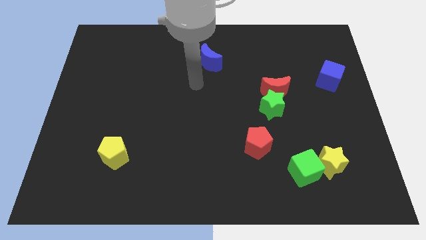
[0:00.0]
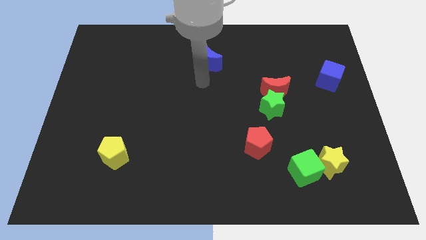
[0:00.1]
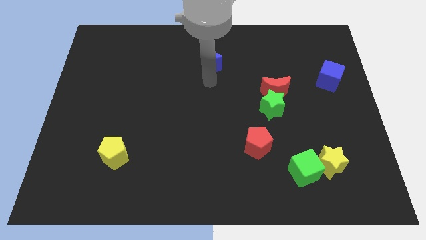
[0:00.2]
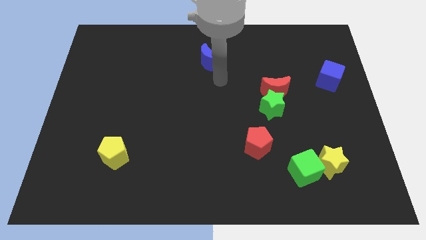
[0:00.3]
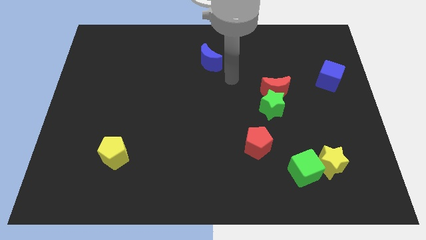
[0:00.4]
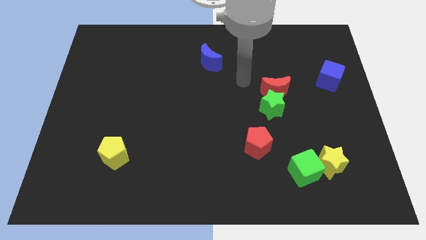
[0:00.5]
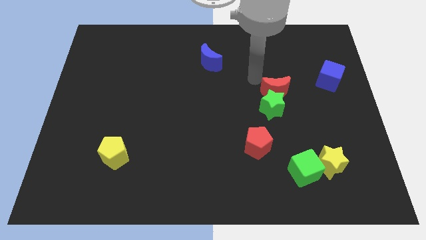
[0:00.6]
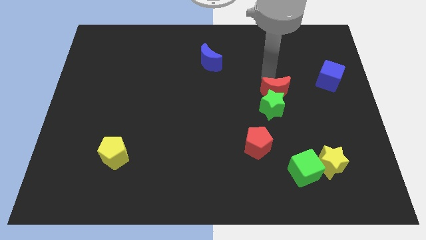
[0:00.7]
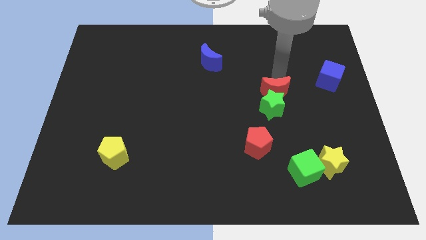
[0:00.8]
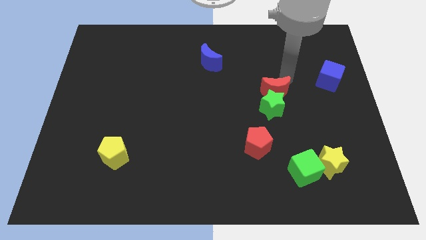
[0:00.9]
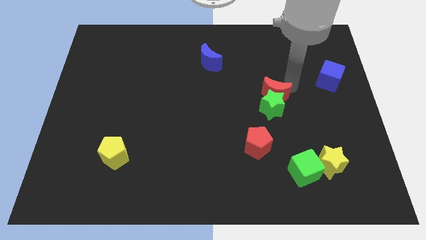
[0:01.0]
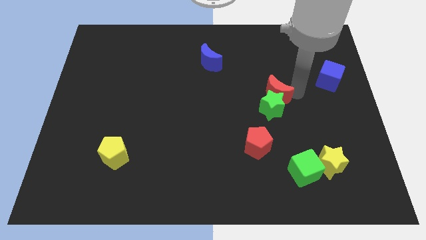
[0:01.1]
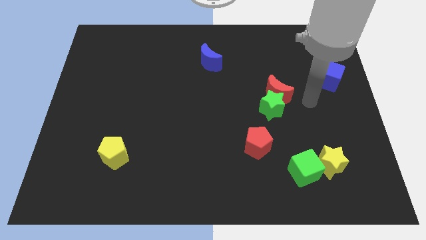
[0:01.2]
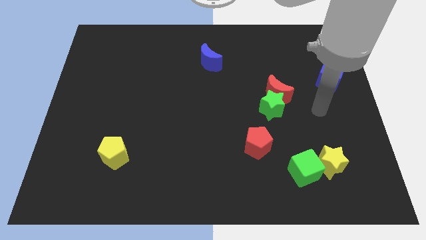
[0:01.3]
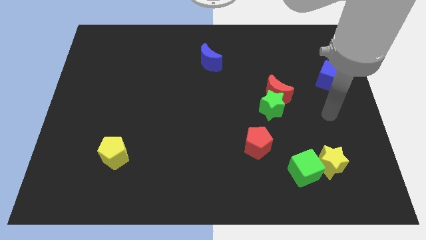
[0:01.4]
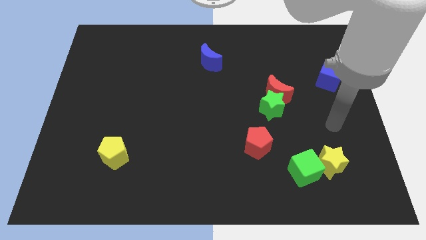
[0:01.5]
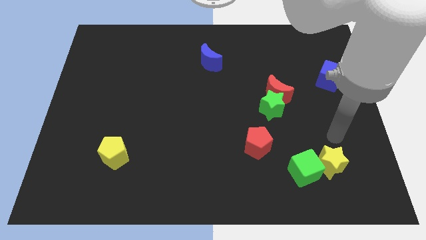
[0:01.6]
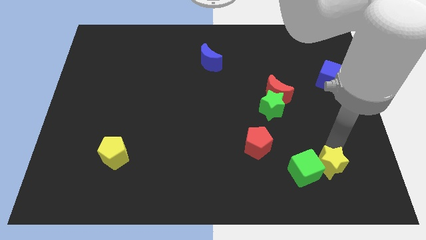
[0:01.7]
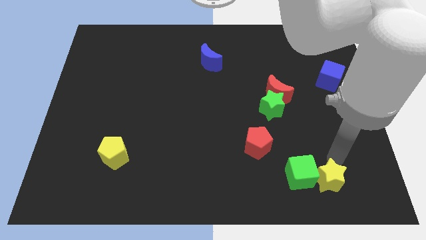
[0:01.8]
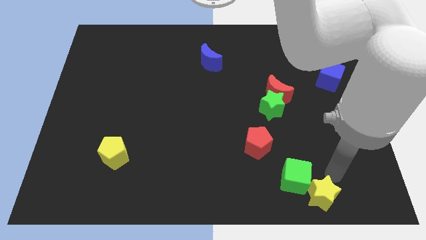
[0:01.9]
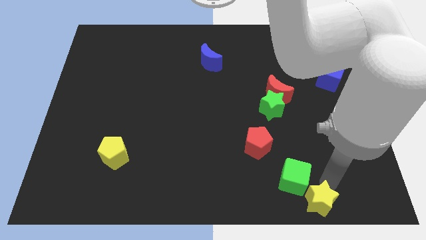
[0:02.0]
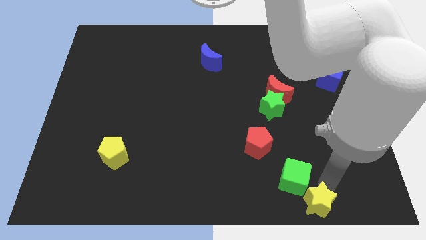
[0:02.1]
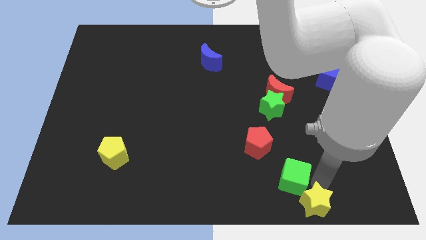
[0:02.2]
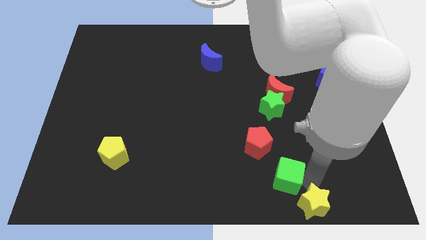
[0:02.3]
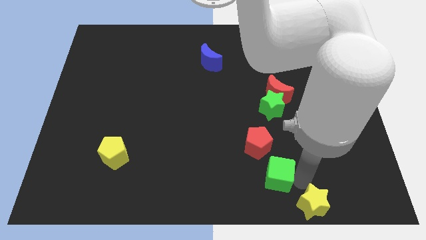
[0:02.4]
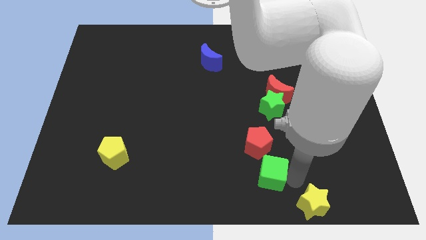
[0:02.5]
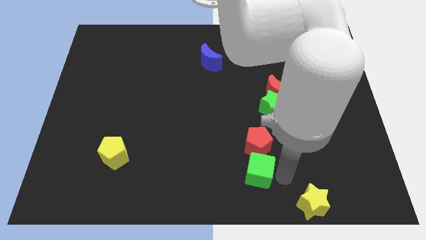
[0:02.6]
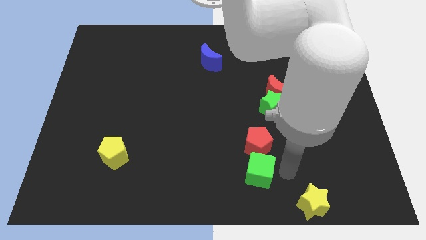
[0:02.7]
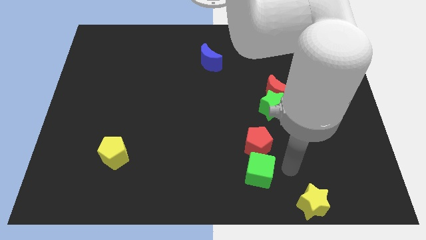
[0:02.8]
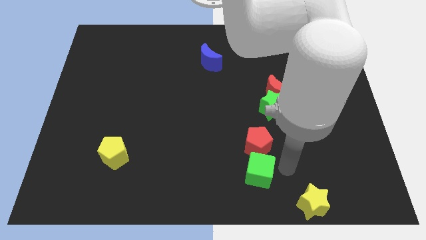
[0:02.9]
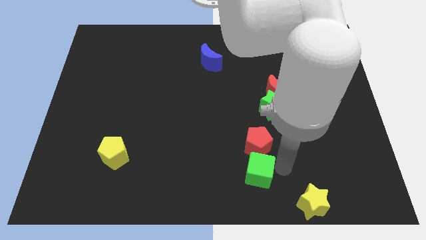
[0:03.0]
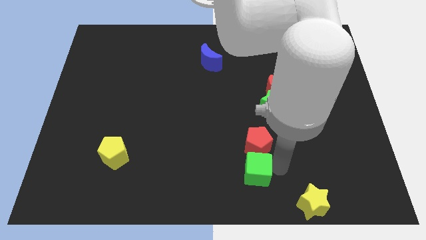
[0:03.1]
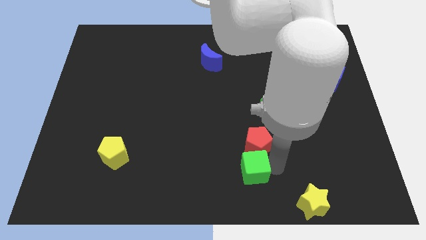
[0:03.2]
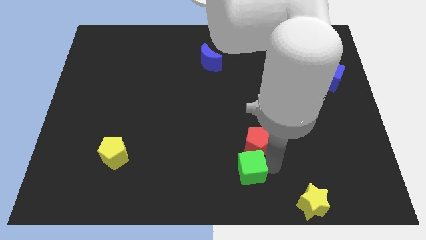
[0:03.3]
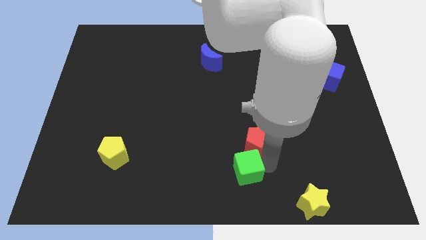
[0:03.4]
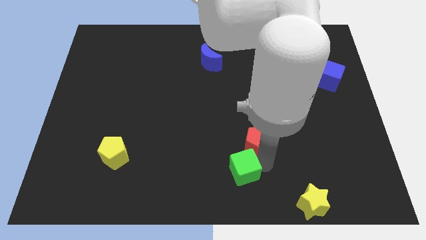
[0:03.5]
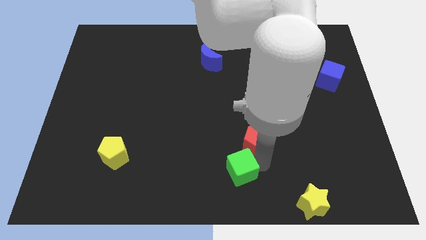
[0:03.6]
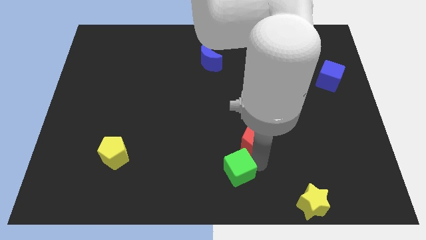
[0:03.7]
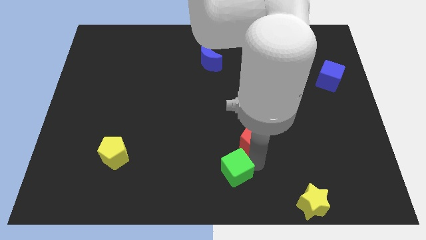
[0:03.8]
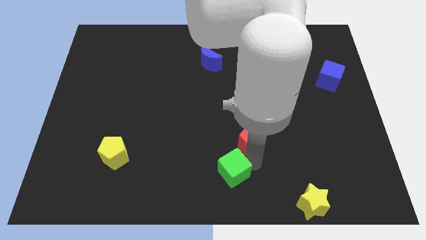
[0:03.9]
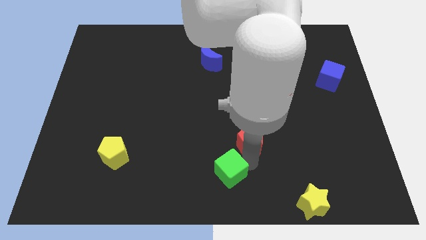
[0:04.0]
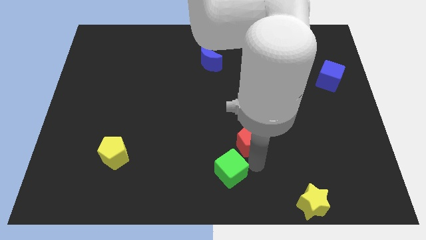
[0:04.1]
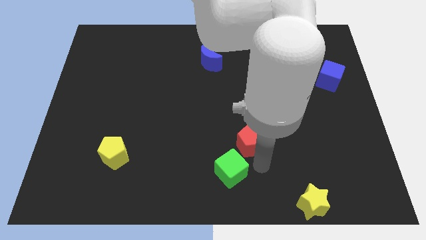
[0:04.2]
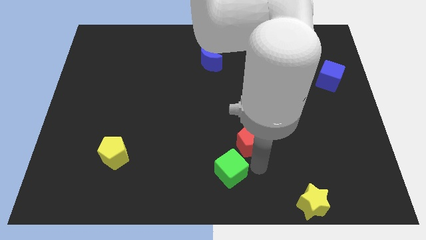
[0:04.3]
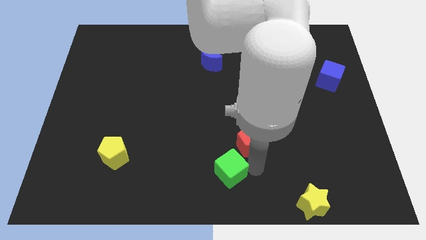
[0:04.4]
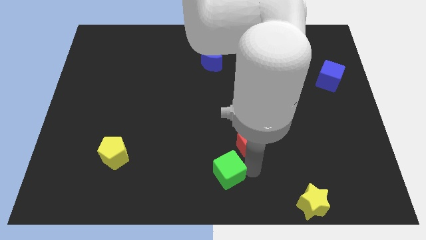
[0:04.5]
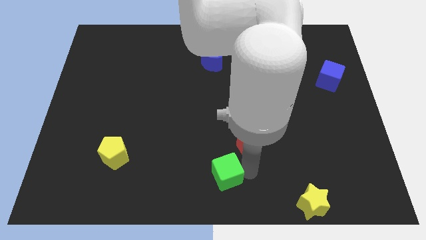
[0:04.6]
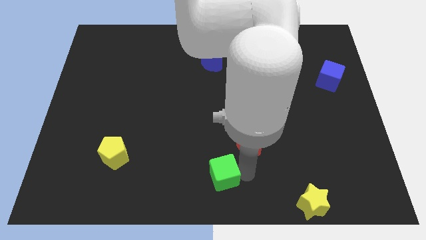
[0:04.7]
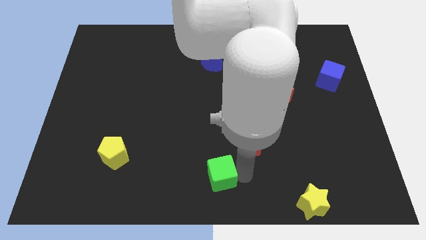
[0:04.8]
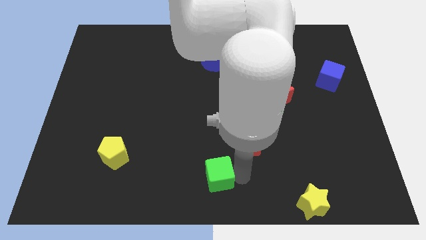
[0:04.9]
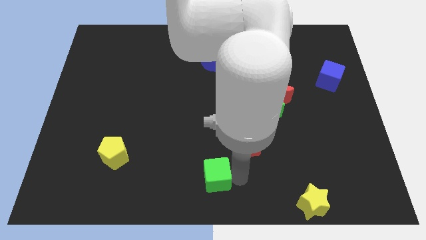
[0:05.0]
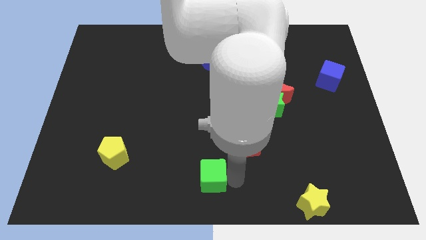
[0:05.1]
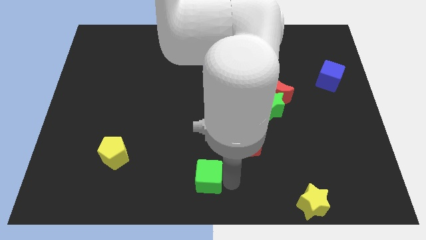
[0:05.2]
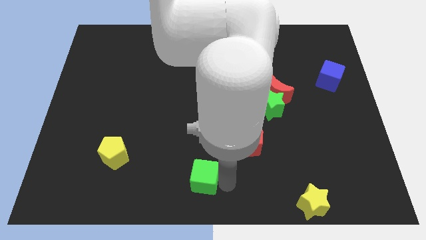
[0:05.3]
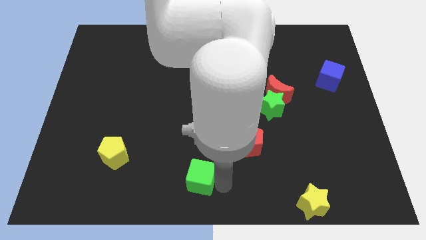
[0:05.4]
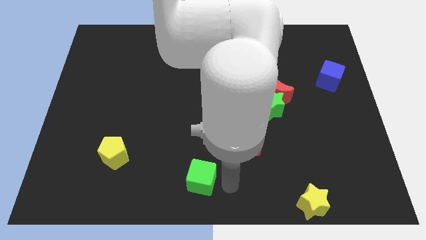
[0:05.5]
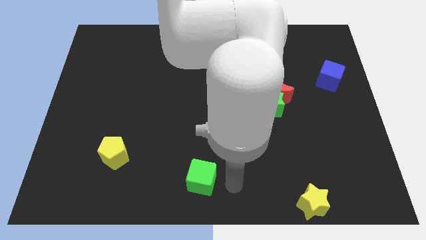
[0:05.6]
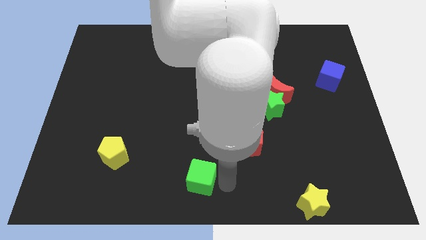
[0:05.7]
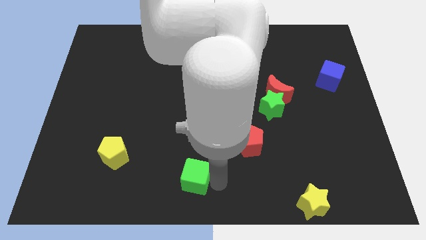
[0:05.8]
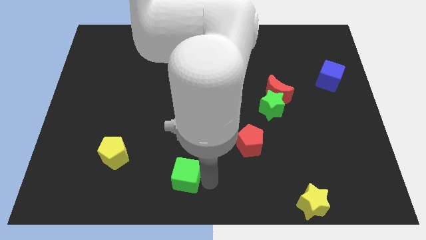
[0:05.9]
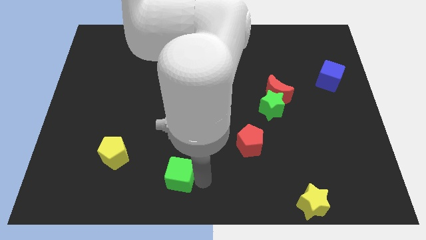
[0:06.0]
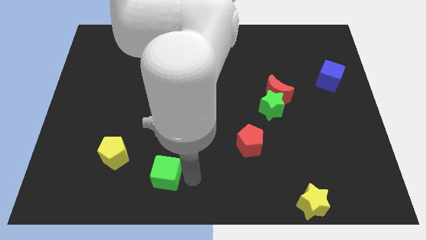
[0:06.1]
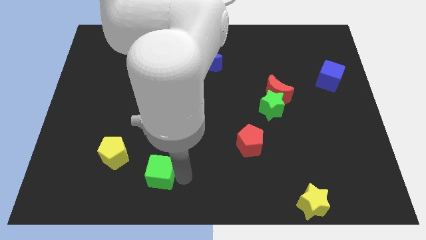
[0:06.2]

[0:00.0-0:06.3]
slide the green cube to the bottom right side of the yellow pentagon

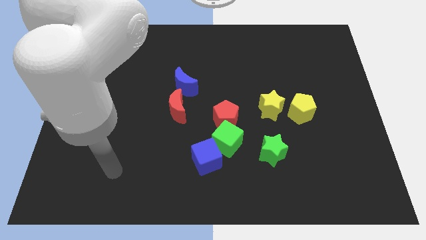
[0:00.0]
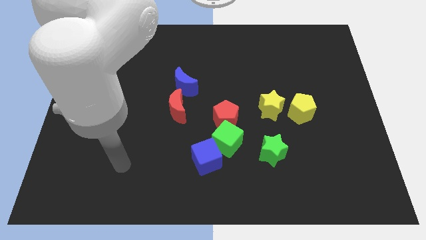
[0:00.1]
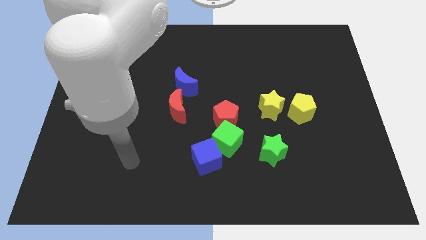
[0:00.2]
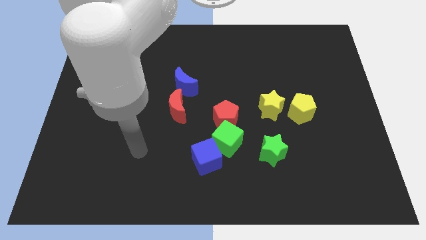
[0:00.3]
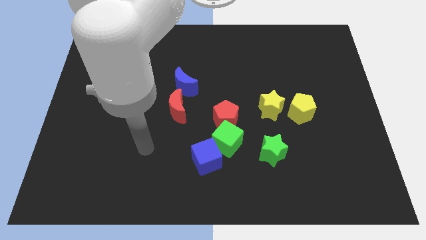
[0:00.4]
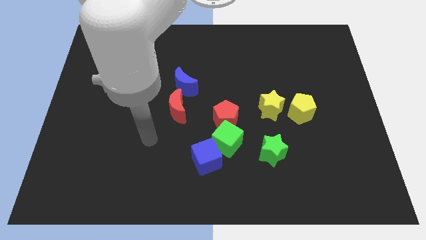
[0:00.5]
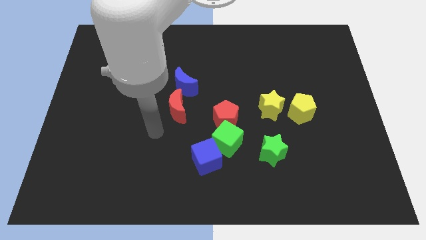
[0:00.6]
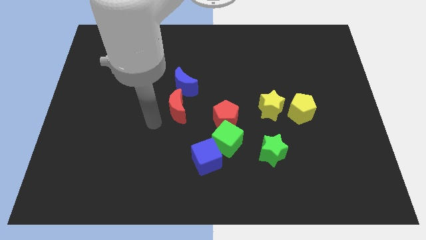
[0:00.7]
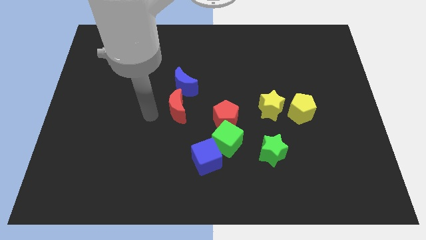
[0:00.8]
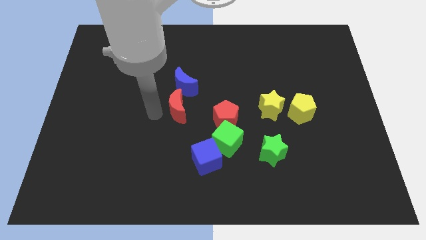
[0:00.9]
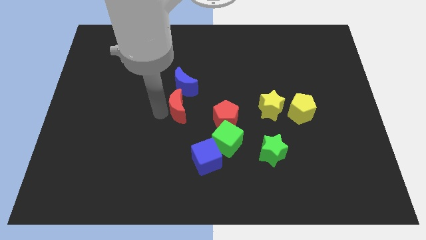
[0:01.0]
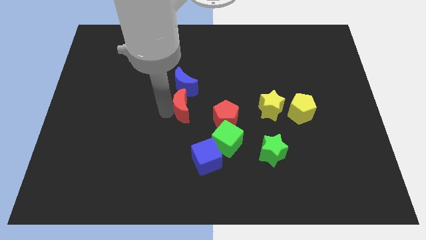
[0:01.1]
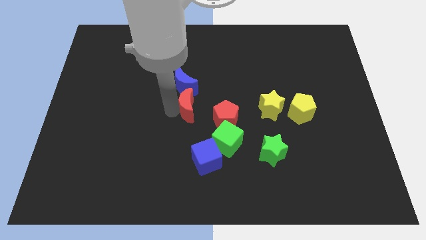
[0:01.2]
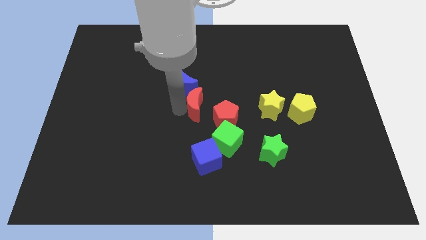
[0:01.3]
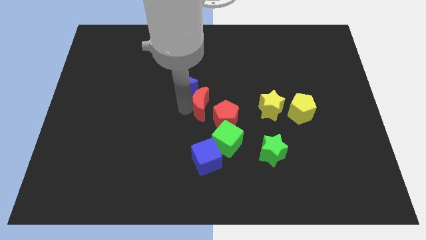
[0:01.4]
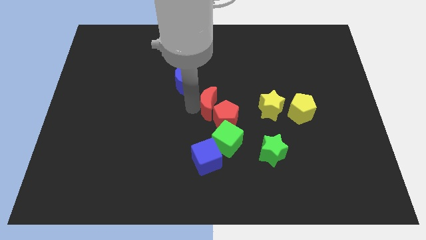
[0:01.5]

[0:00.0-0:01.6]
put the red moon to the top side of the green cube

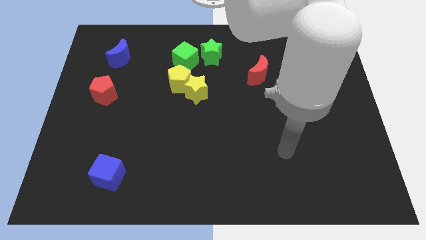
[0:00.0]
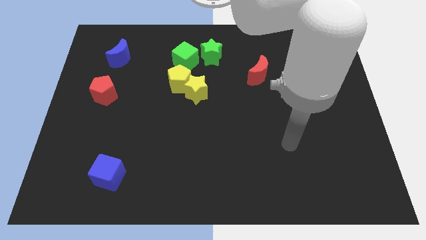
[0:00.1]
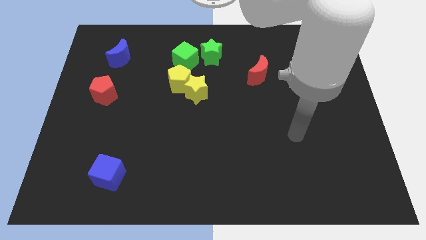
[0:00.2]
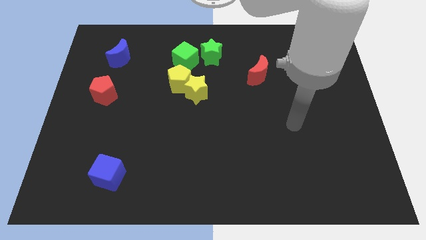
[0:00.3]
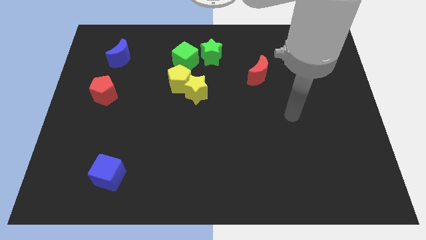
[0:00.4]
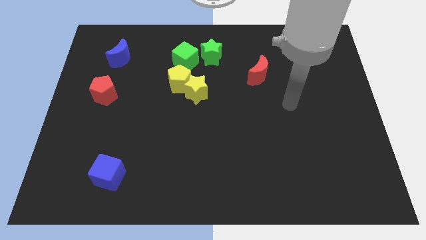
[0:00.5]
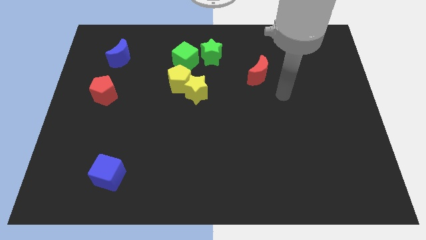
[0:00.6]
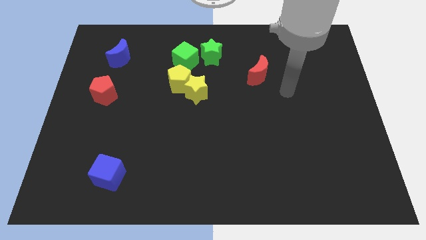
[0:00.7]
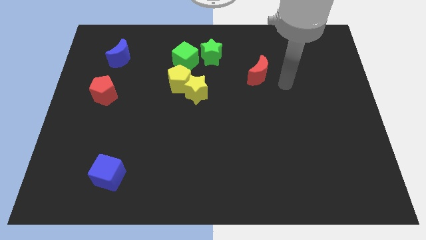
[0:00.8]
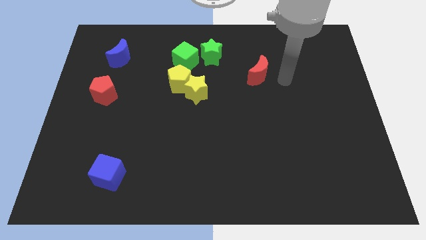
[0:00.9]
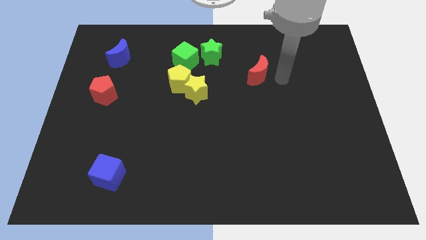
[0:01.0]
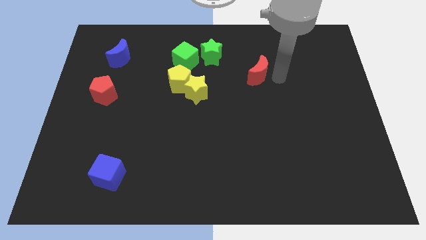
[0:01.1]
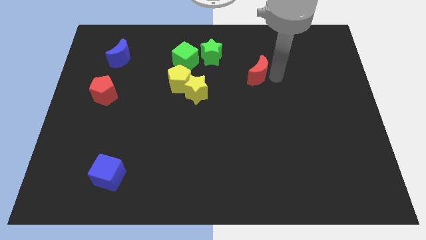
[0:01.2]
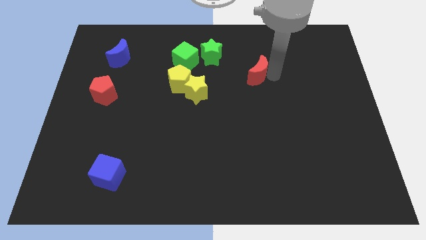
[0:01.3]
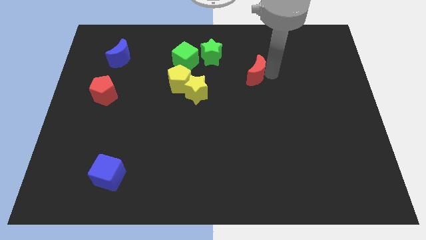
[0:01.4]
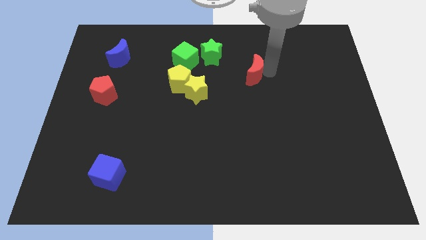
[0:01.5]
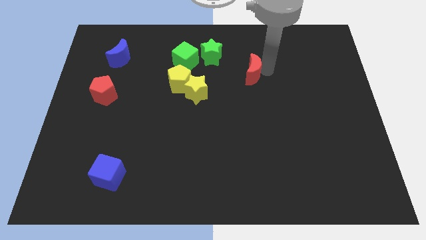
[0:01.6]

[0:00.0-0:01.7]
push the red moon to the bottom right of the green star
